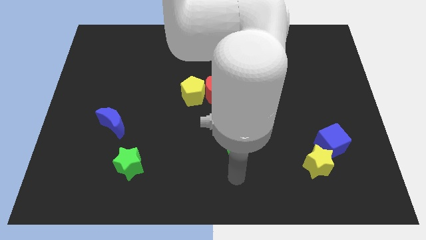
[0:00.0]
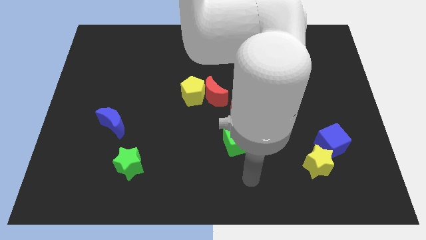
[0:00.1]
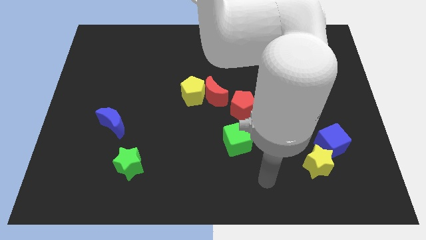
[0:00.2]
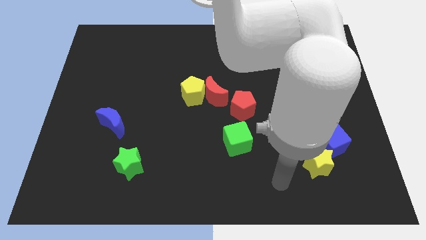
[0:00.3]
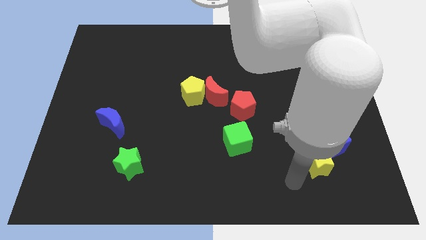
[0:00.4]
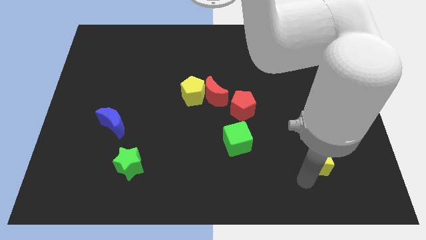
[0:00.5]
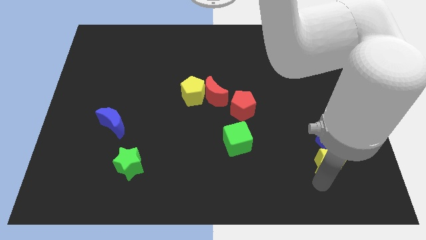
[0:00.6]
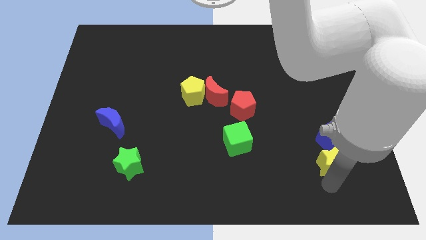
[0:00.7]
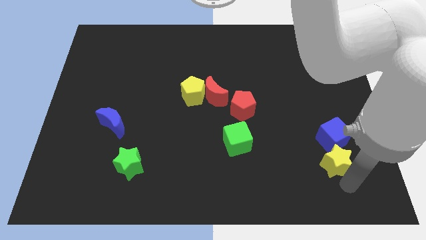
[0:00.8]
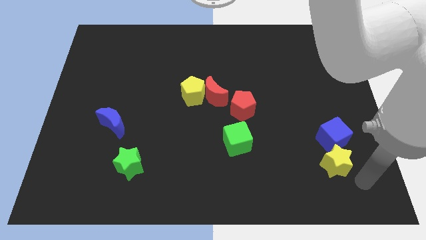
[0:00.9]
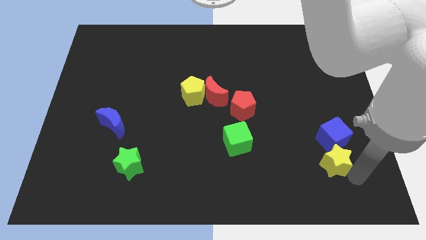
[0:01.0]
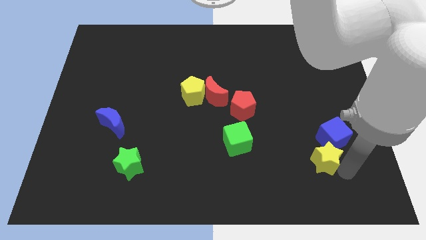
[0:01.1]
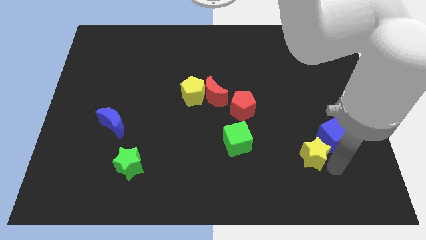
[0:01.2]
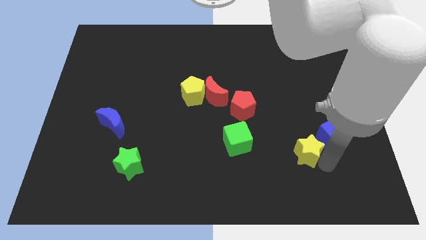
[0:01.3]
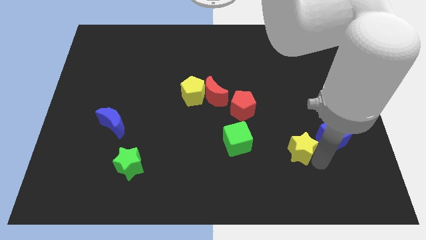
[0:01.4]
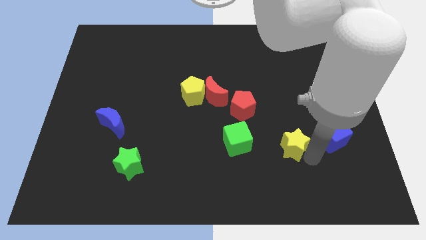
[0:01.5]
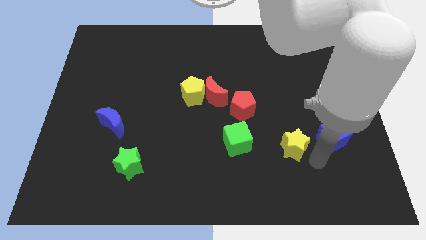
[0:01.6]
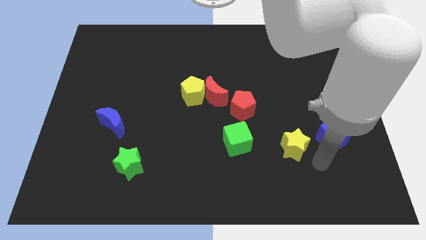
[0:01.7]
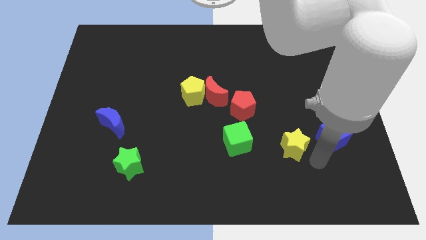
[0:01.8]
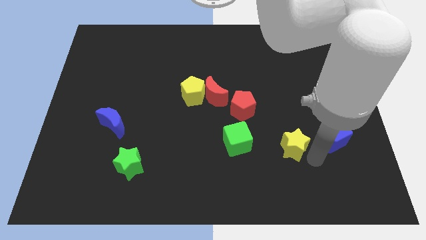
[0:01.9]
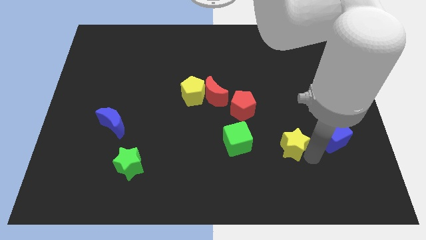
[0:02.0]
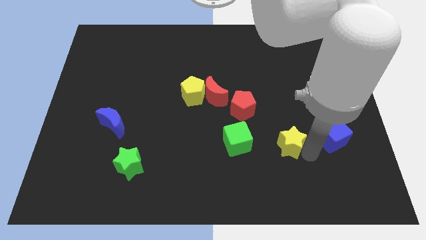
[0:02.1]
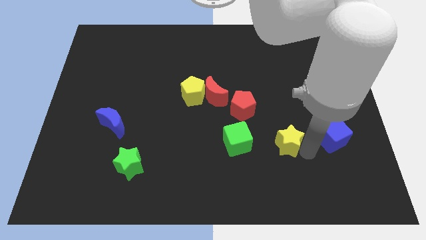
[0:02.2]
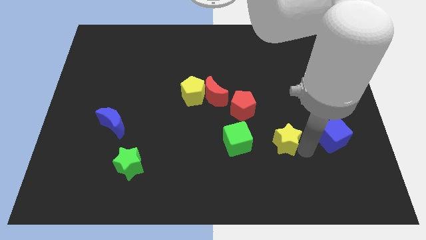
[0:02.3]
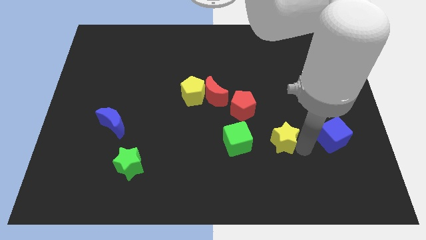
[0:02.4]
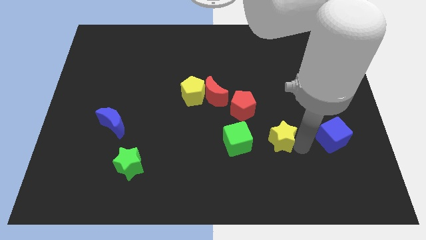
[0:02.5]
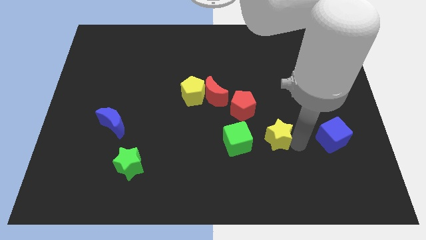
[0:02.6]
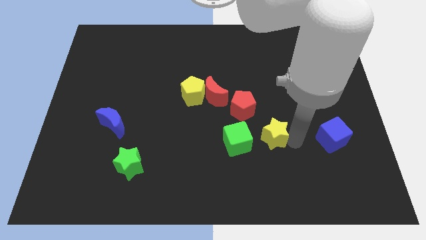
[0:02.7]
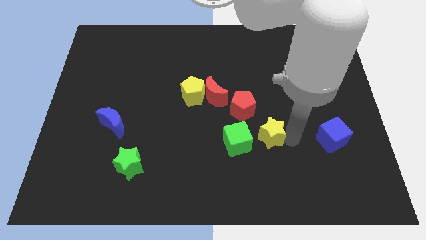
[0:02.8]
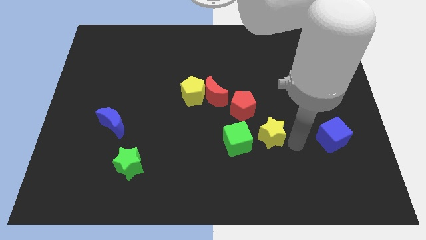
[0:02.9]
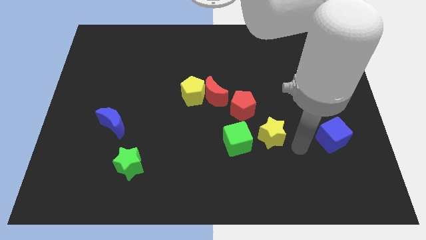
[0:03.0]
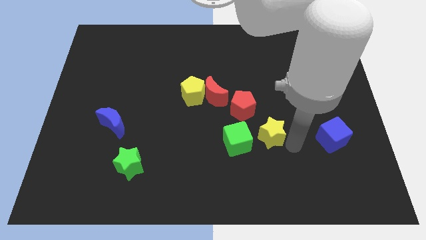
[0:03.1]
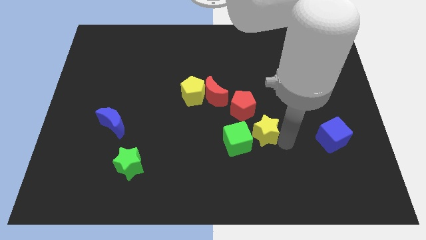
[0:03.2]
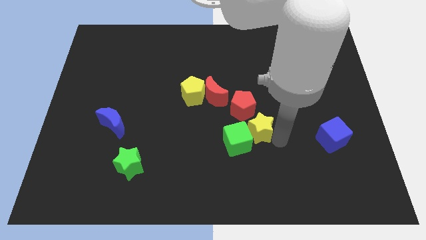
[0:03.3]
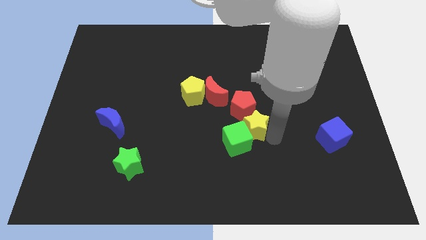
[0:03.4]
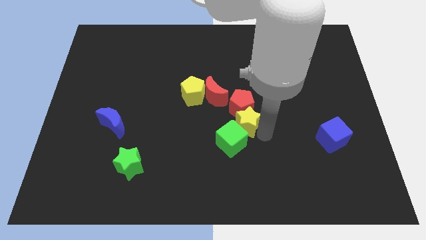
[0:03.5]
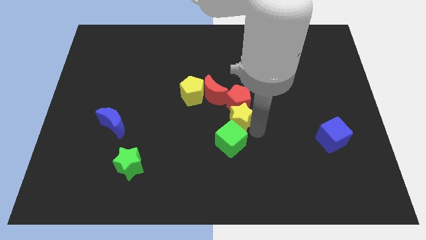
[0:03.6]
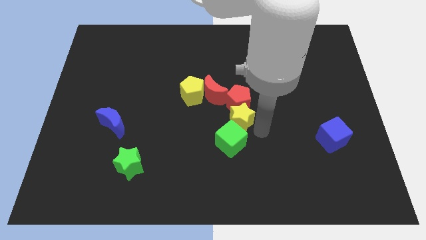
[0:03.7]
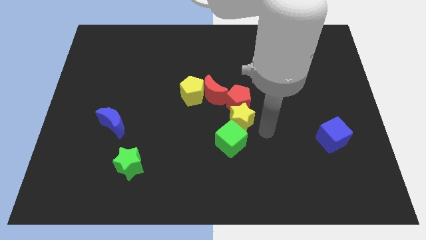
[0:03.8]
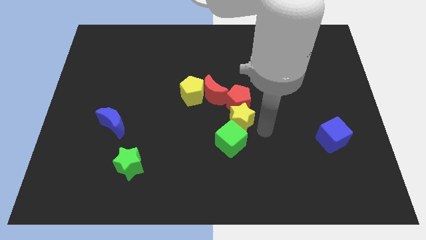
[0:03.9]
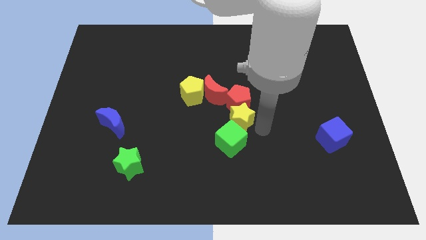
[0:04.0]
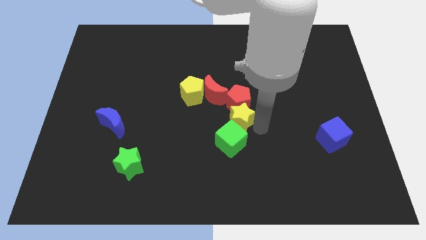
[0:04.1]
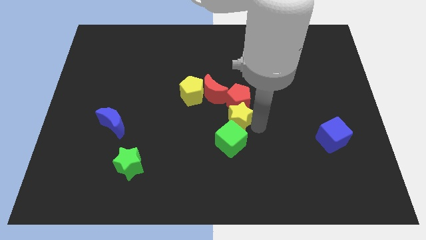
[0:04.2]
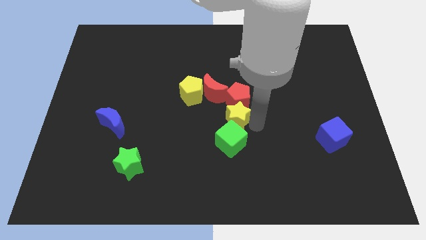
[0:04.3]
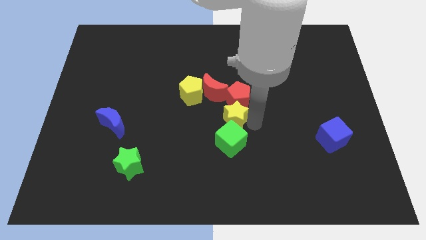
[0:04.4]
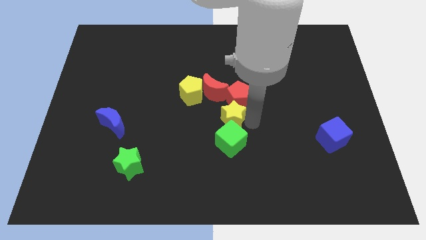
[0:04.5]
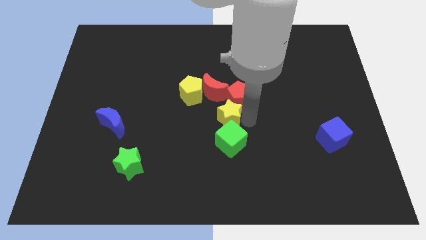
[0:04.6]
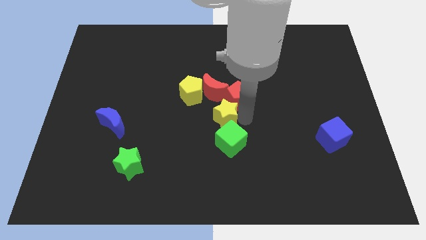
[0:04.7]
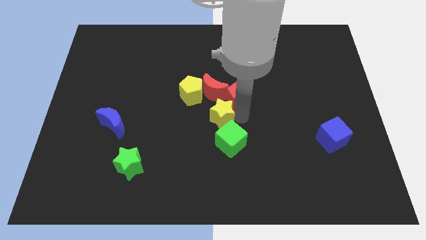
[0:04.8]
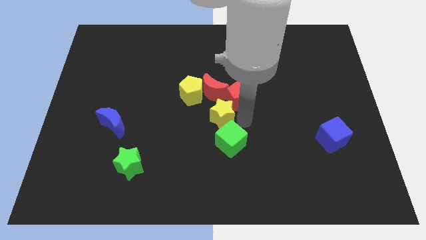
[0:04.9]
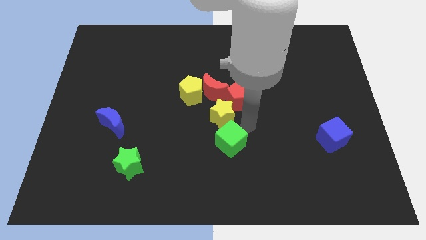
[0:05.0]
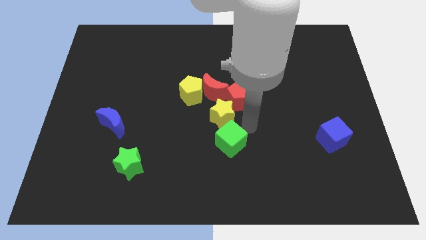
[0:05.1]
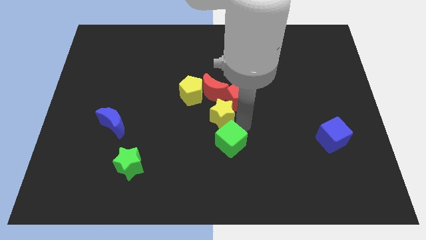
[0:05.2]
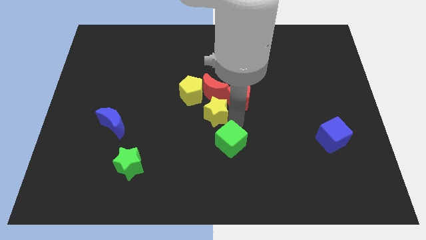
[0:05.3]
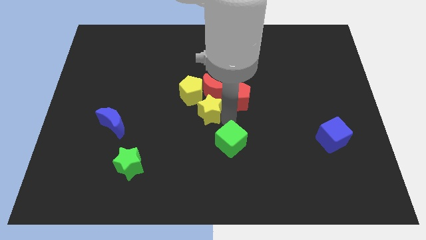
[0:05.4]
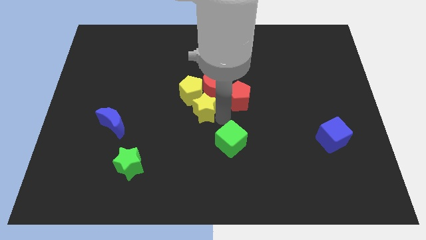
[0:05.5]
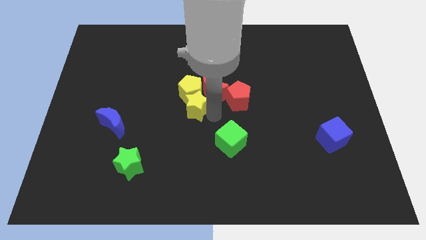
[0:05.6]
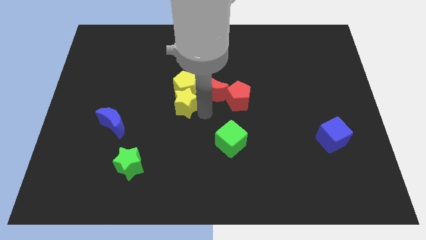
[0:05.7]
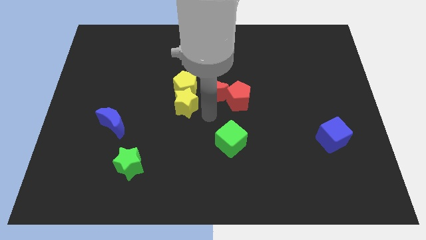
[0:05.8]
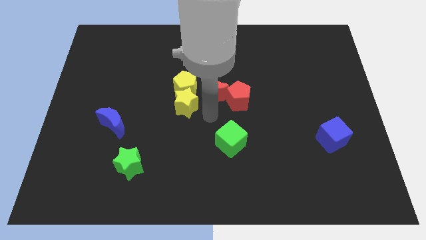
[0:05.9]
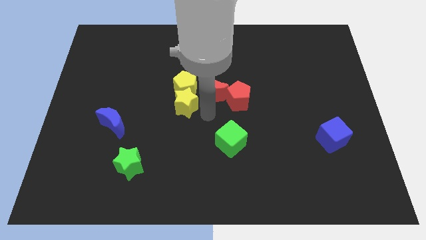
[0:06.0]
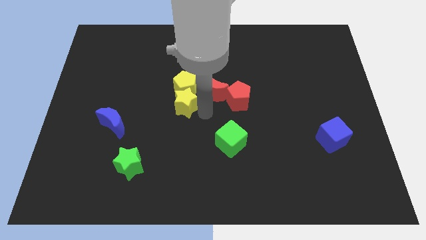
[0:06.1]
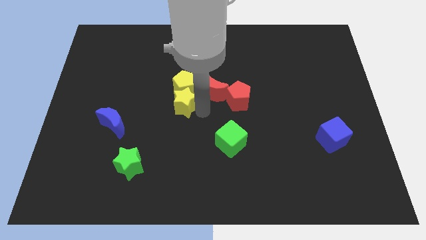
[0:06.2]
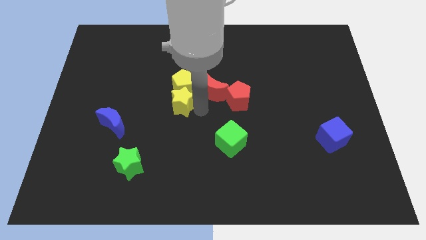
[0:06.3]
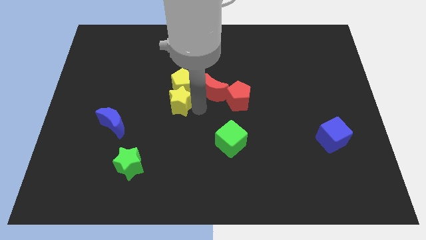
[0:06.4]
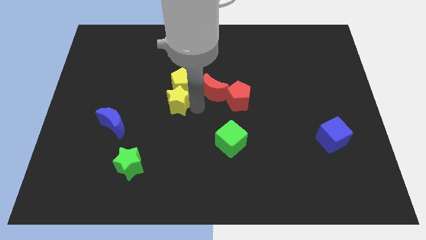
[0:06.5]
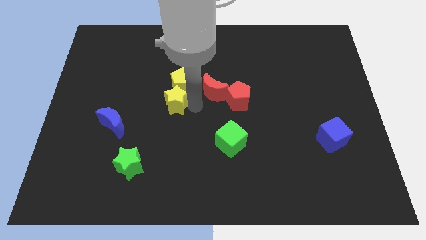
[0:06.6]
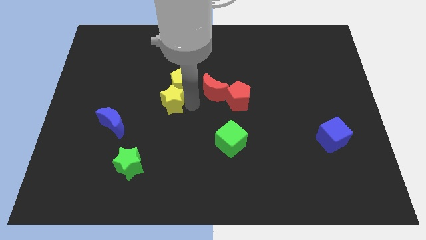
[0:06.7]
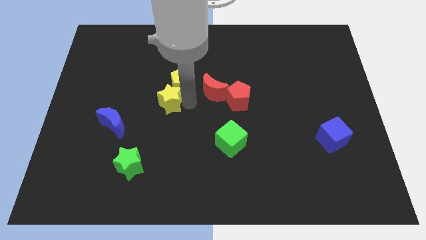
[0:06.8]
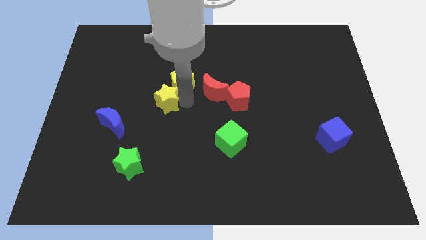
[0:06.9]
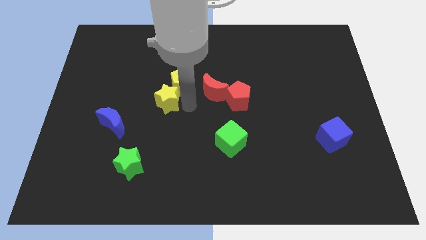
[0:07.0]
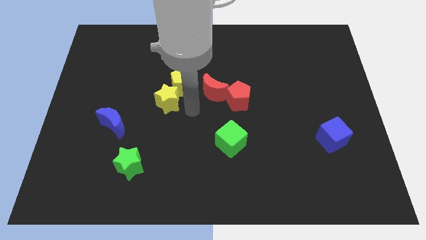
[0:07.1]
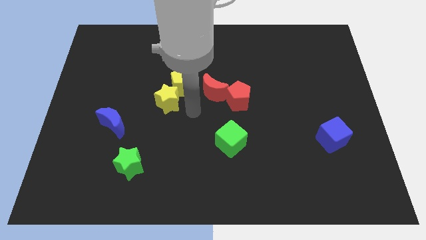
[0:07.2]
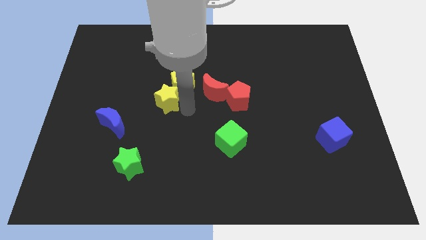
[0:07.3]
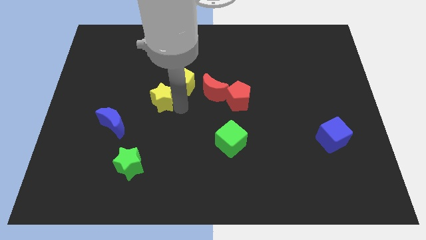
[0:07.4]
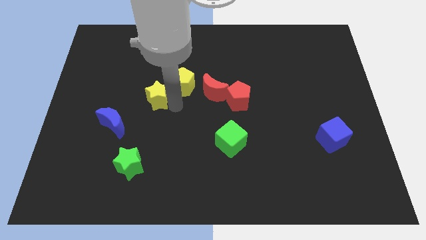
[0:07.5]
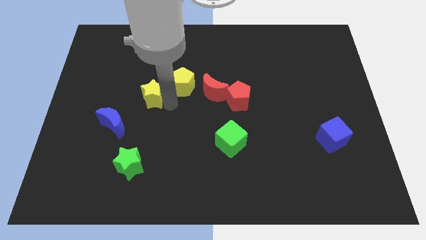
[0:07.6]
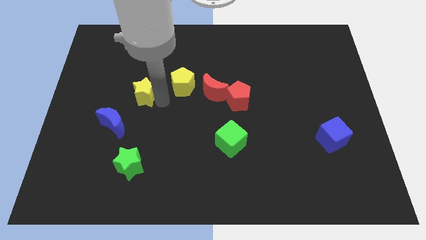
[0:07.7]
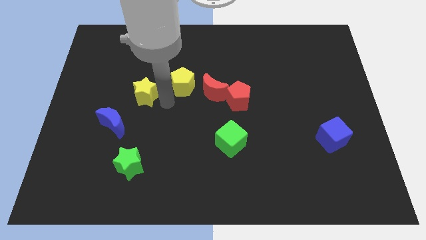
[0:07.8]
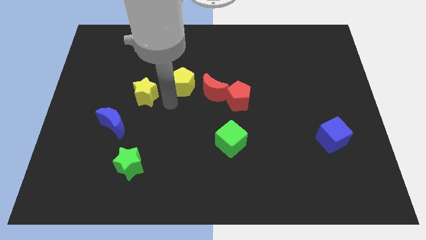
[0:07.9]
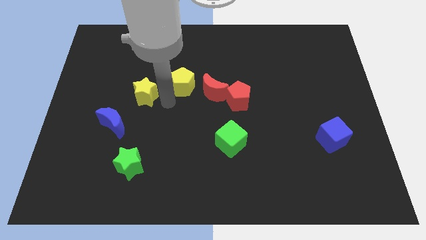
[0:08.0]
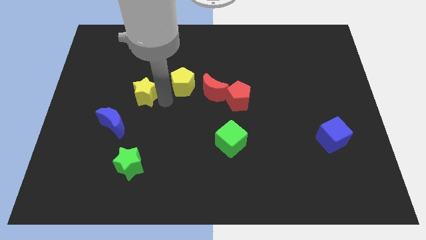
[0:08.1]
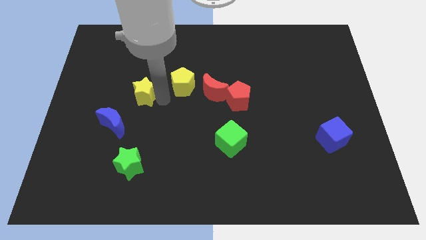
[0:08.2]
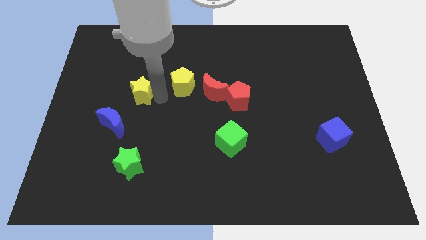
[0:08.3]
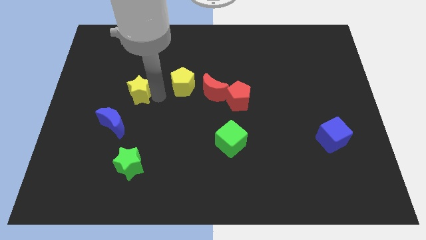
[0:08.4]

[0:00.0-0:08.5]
put the yellow star to the top side of the blue moon
